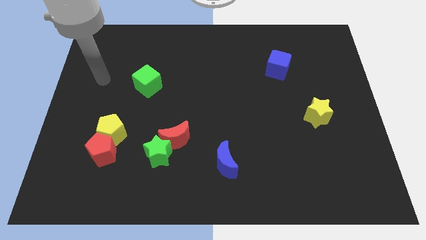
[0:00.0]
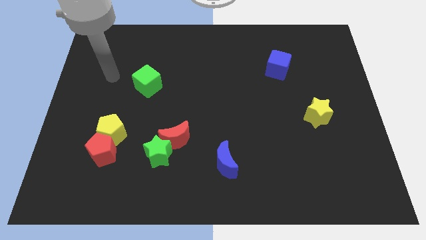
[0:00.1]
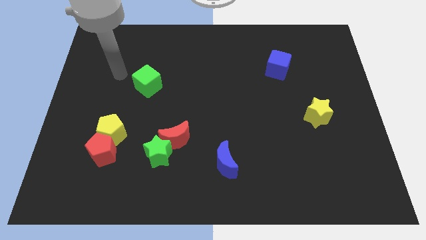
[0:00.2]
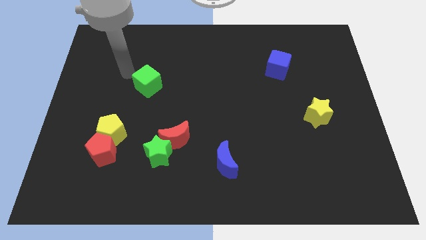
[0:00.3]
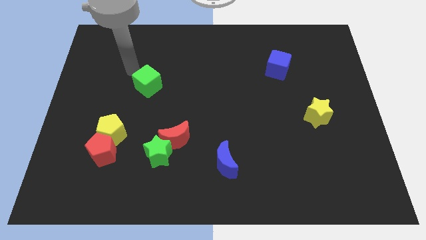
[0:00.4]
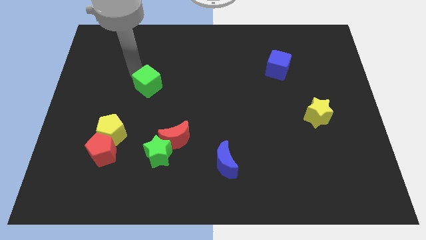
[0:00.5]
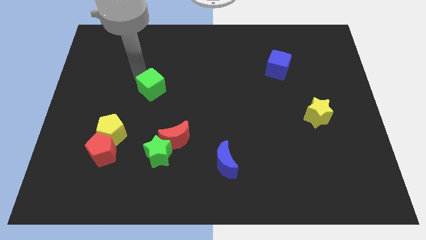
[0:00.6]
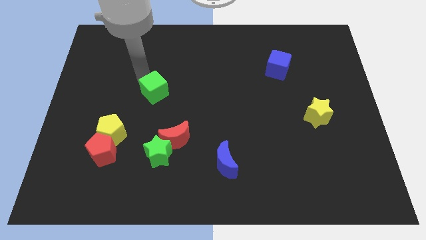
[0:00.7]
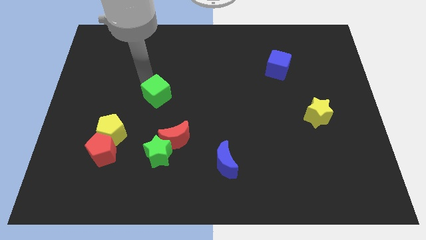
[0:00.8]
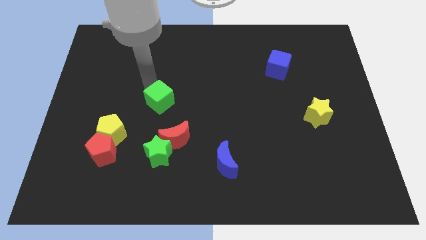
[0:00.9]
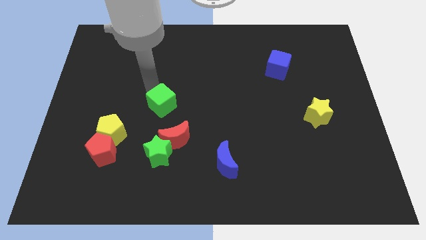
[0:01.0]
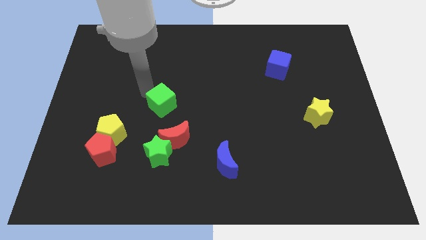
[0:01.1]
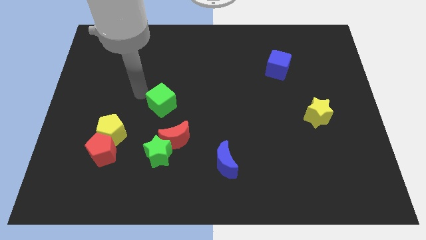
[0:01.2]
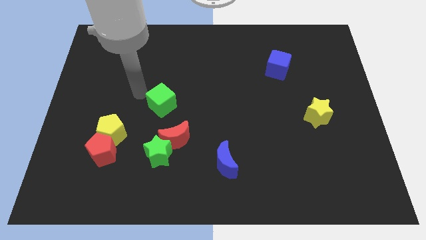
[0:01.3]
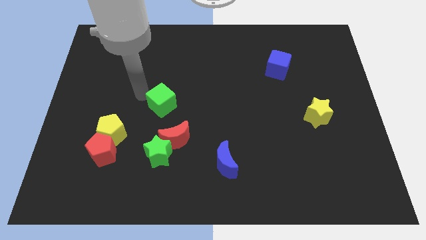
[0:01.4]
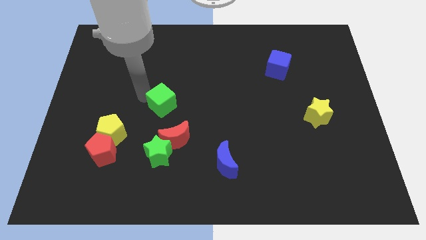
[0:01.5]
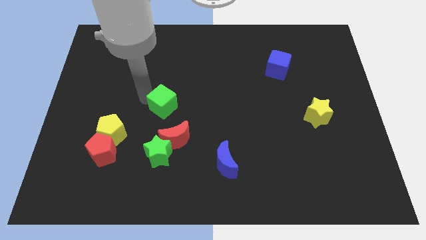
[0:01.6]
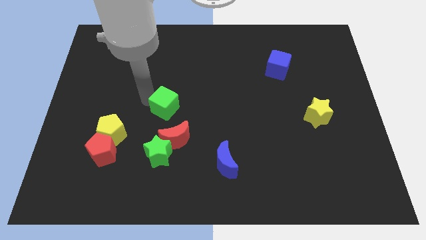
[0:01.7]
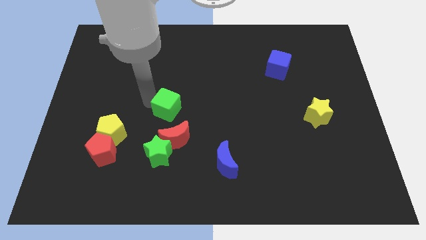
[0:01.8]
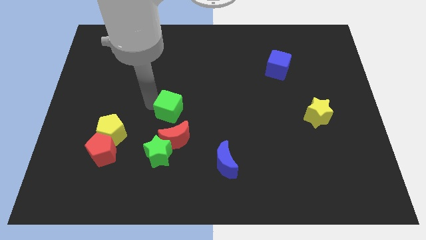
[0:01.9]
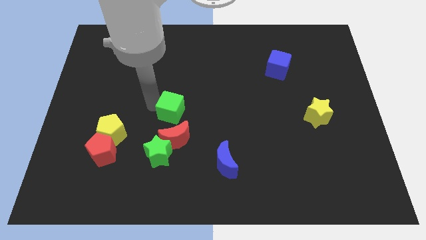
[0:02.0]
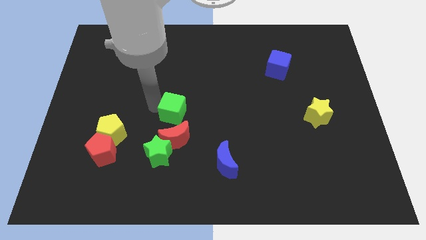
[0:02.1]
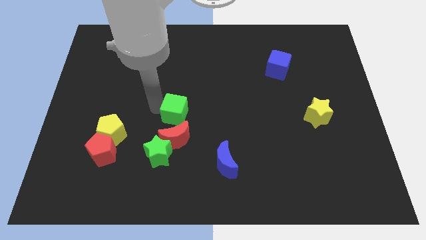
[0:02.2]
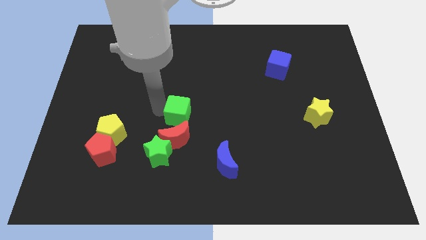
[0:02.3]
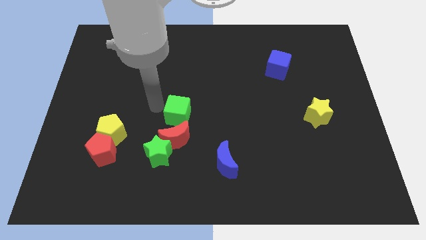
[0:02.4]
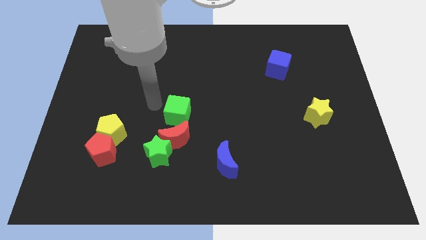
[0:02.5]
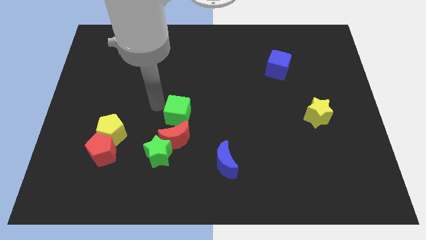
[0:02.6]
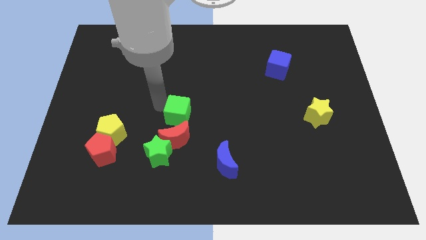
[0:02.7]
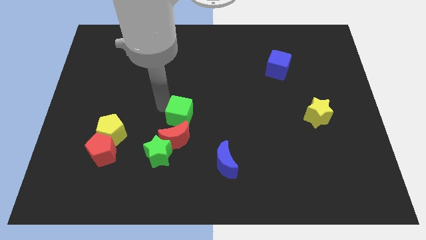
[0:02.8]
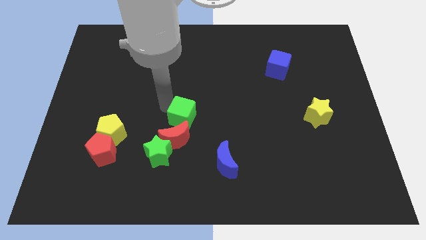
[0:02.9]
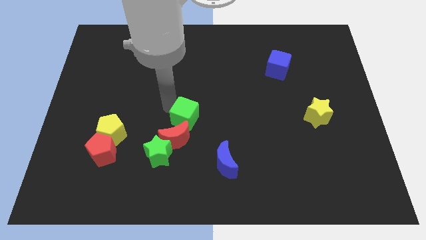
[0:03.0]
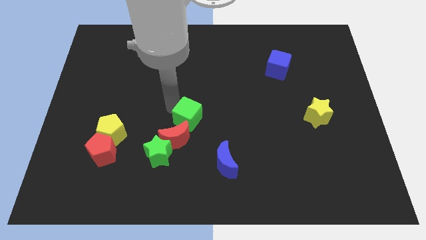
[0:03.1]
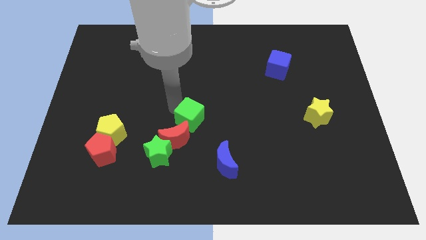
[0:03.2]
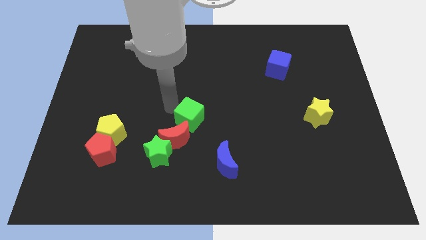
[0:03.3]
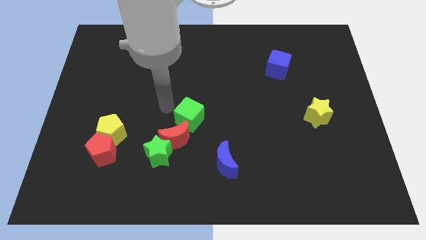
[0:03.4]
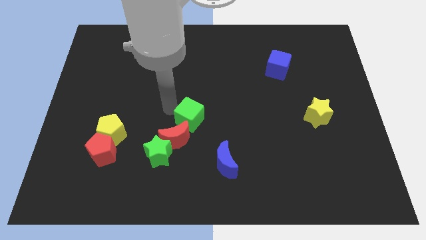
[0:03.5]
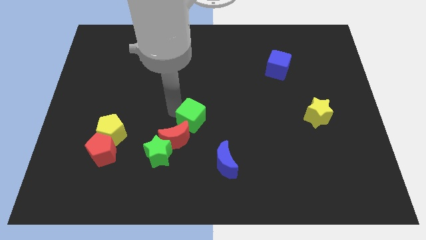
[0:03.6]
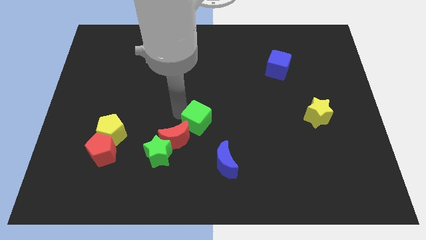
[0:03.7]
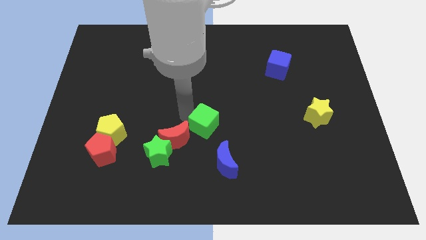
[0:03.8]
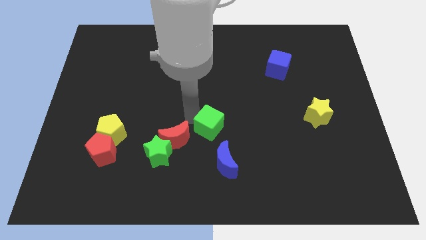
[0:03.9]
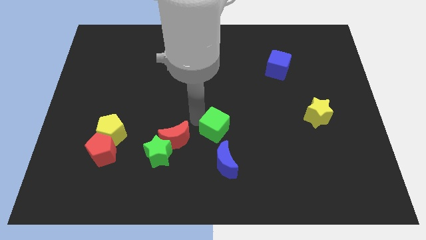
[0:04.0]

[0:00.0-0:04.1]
slide the green cube downwards and right diagonally

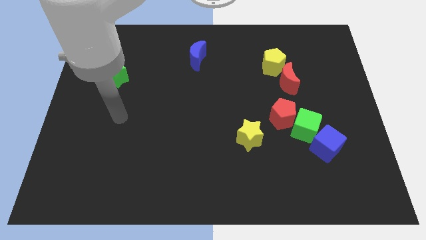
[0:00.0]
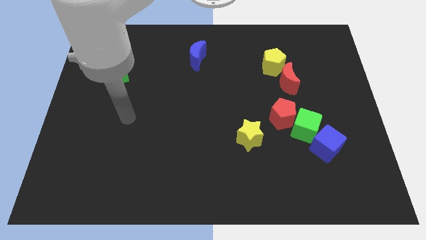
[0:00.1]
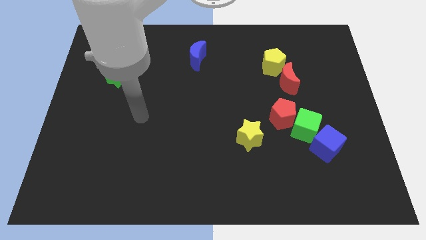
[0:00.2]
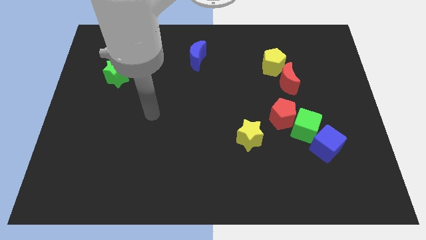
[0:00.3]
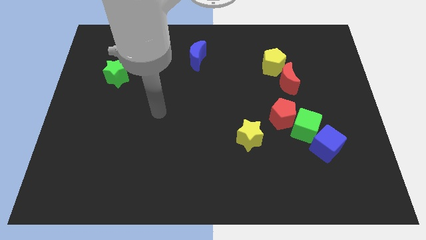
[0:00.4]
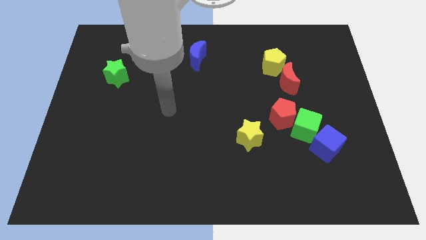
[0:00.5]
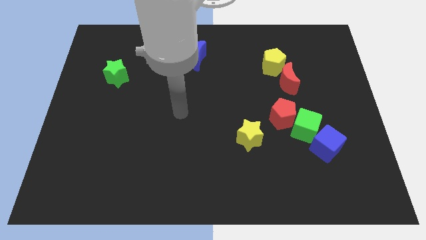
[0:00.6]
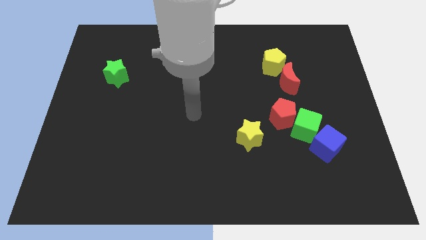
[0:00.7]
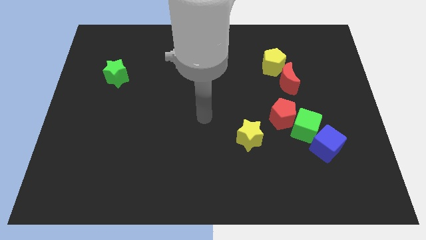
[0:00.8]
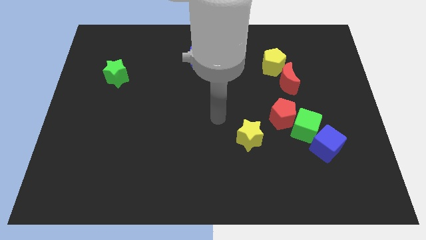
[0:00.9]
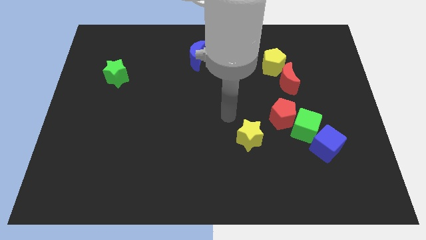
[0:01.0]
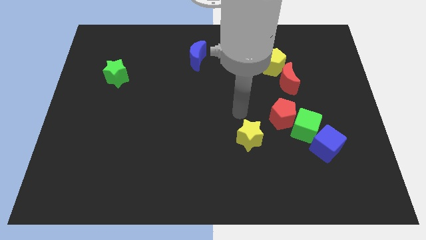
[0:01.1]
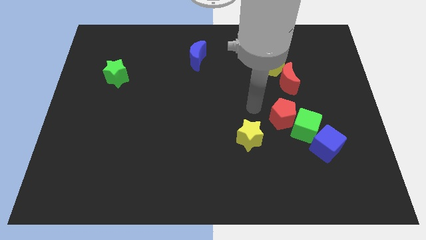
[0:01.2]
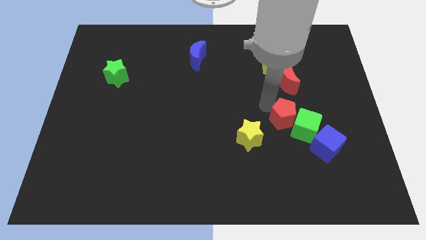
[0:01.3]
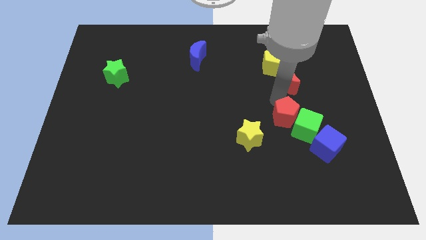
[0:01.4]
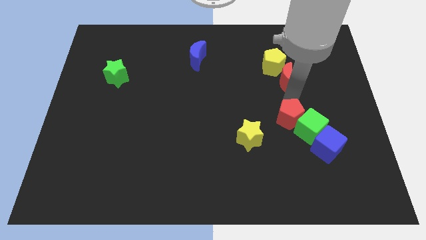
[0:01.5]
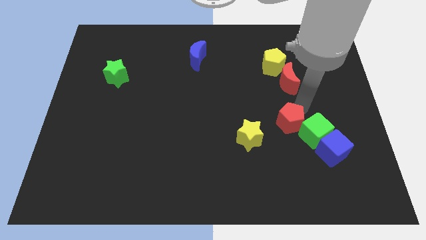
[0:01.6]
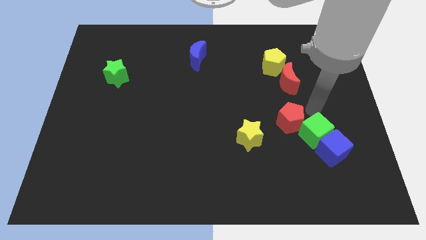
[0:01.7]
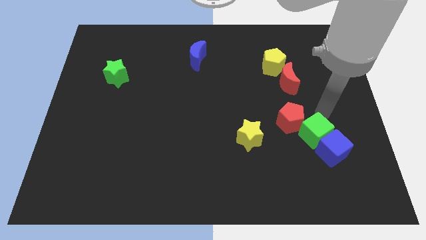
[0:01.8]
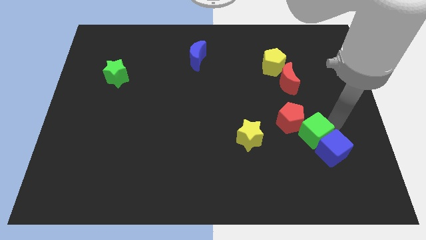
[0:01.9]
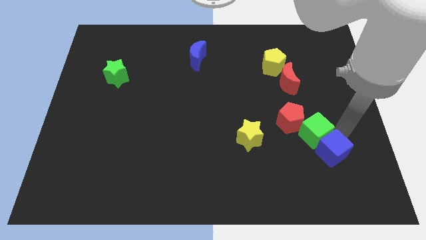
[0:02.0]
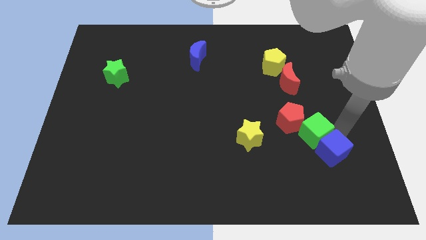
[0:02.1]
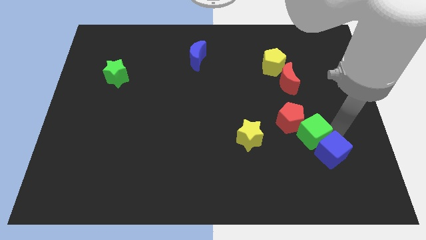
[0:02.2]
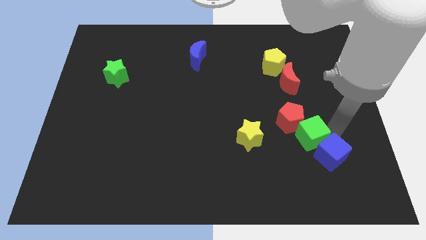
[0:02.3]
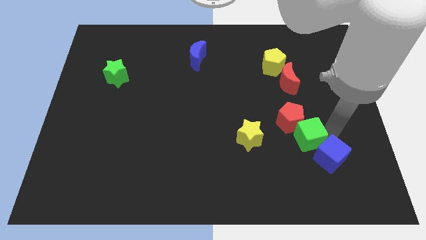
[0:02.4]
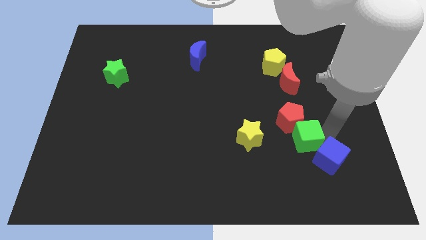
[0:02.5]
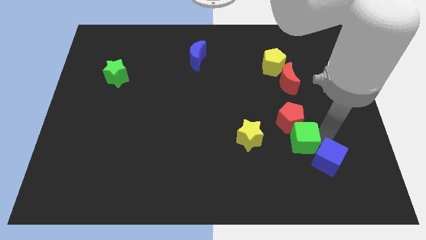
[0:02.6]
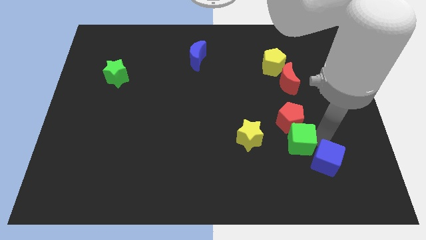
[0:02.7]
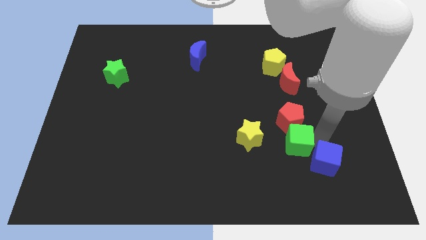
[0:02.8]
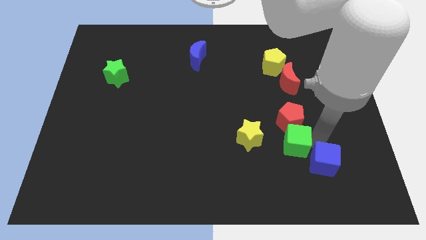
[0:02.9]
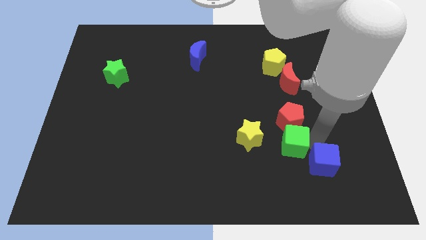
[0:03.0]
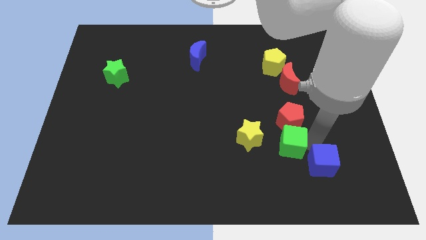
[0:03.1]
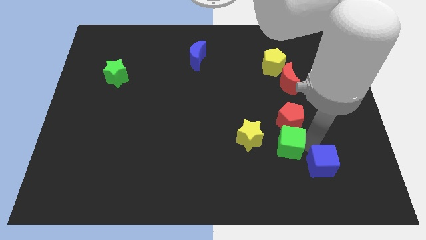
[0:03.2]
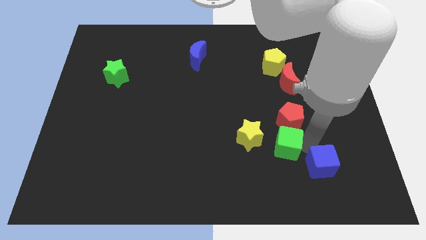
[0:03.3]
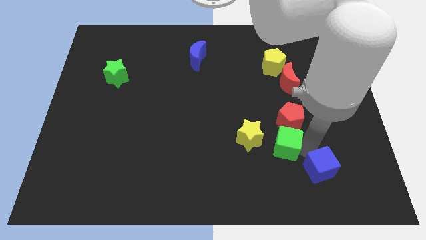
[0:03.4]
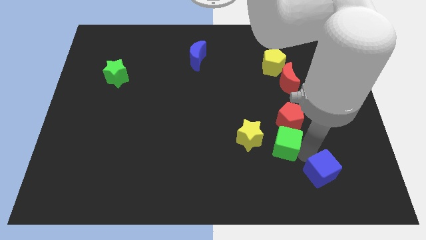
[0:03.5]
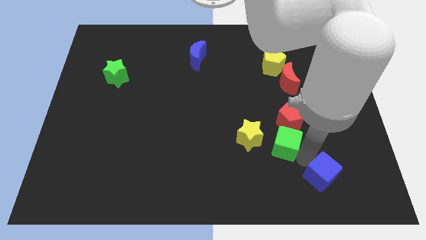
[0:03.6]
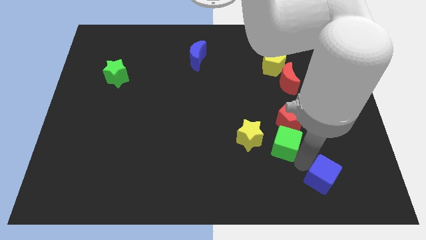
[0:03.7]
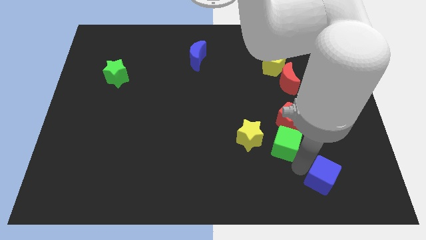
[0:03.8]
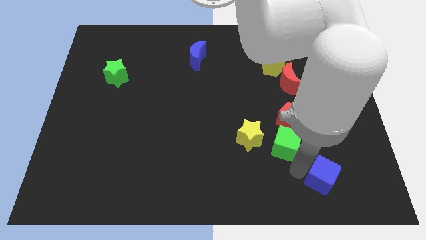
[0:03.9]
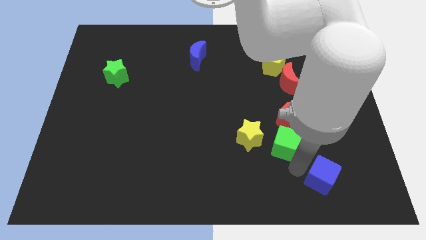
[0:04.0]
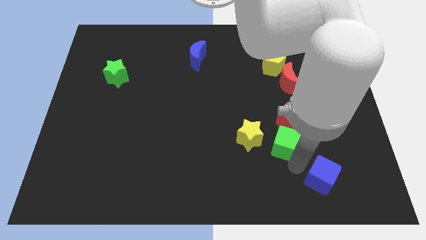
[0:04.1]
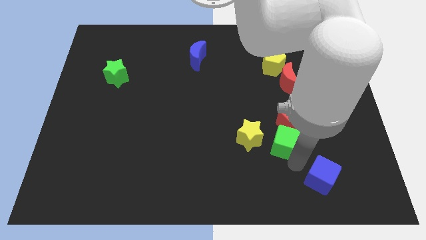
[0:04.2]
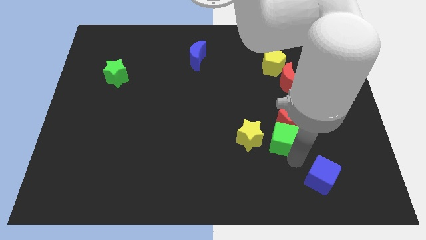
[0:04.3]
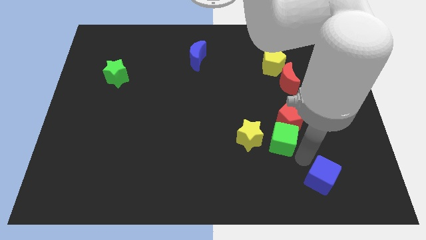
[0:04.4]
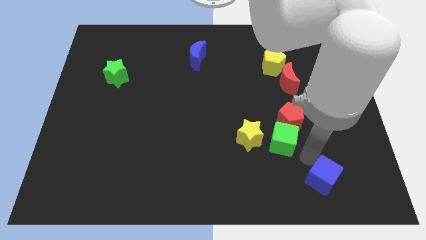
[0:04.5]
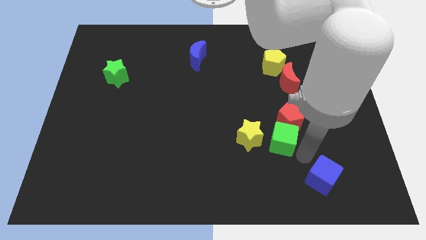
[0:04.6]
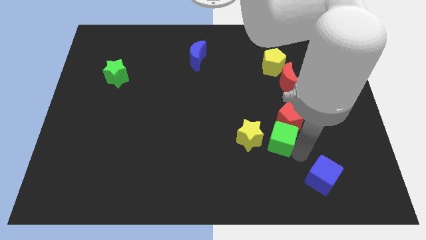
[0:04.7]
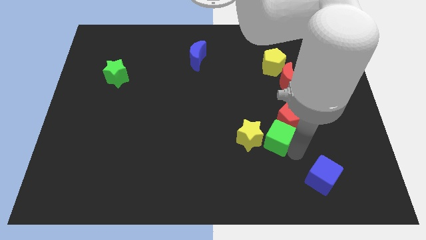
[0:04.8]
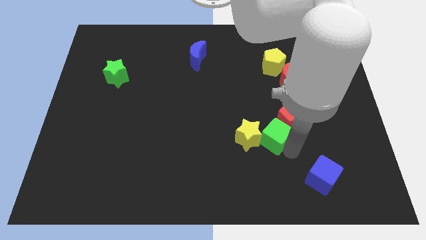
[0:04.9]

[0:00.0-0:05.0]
slightly push the green cube left
